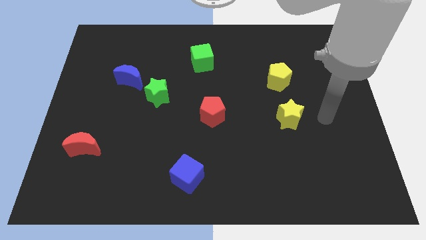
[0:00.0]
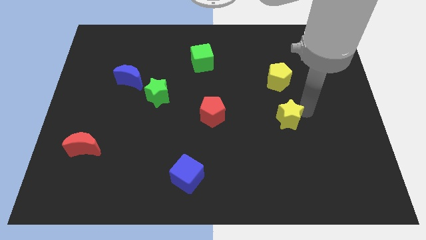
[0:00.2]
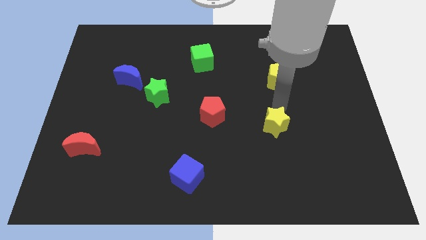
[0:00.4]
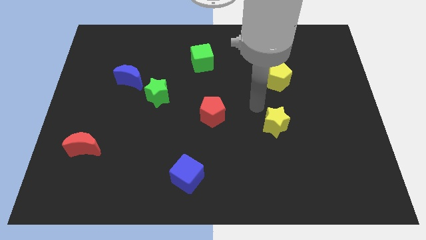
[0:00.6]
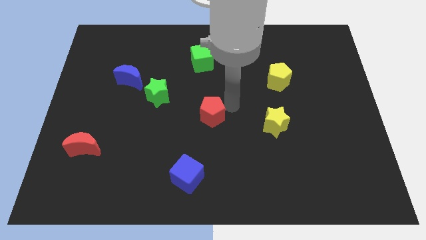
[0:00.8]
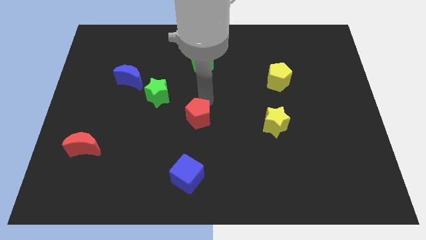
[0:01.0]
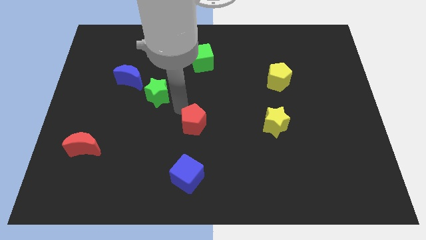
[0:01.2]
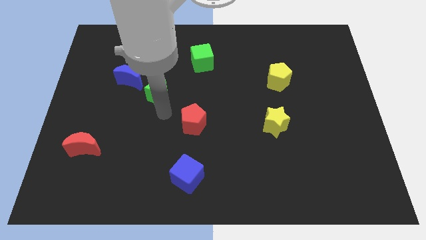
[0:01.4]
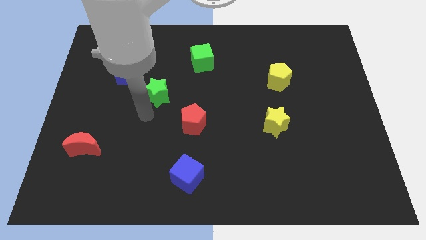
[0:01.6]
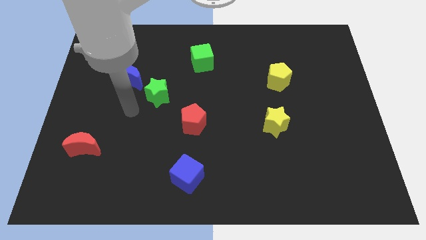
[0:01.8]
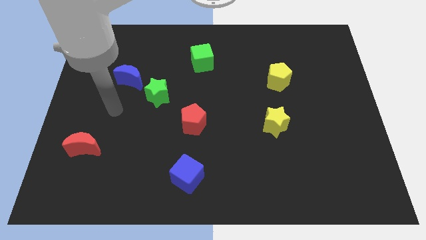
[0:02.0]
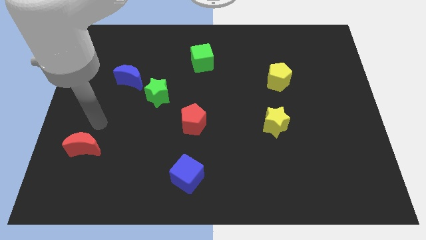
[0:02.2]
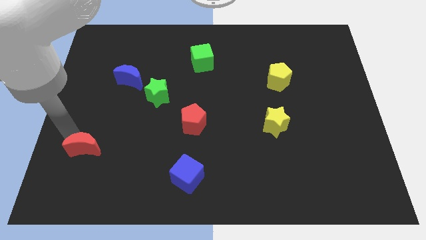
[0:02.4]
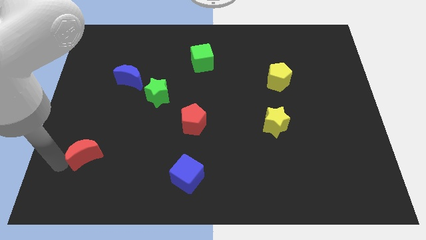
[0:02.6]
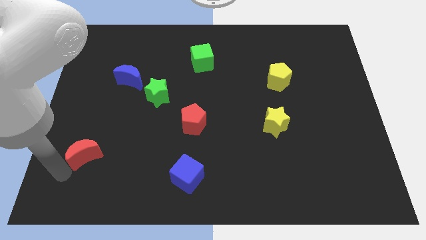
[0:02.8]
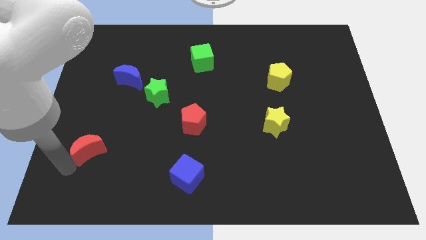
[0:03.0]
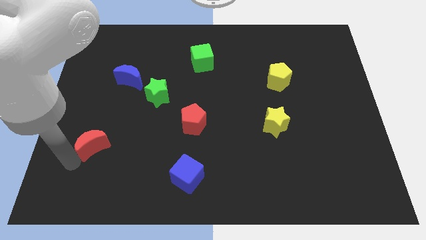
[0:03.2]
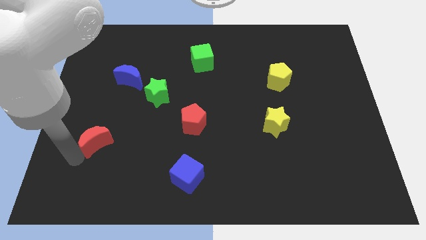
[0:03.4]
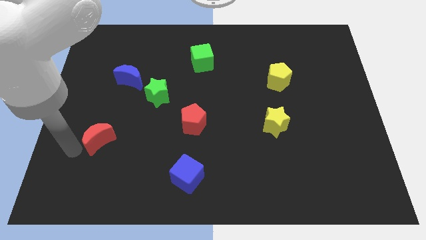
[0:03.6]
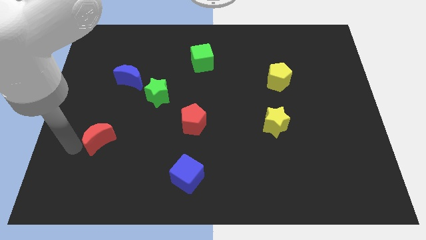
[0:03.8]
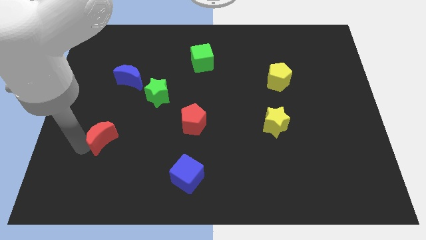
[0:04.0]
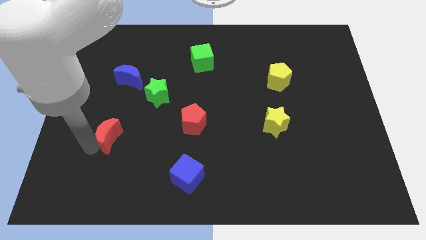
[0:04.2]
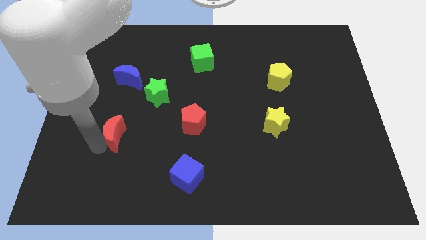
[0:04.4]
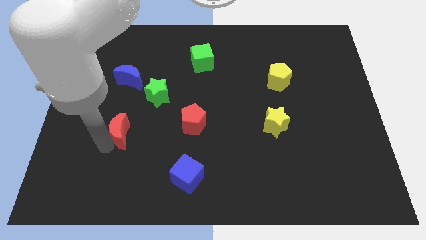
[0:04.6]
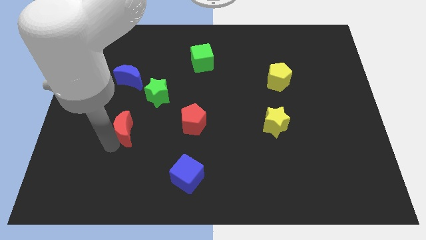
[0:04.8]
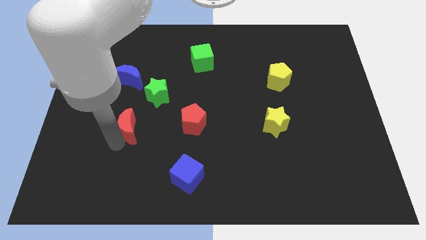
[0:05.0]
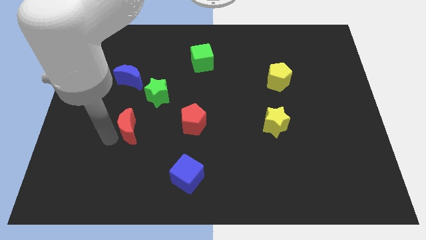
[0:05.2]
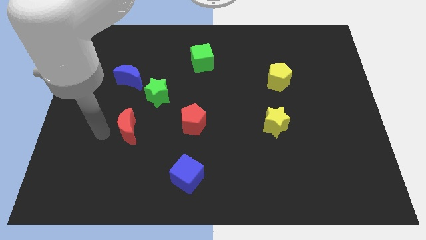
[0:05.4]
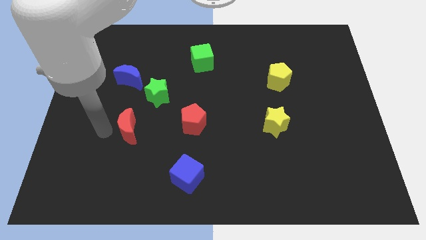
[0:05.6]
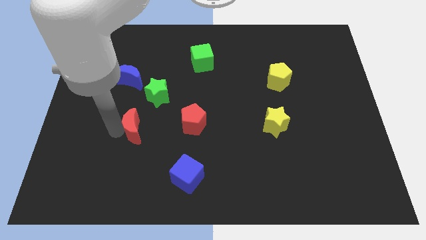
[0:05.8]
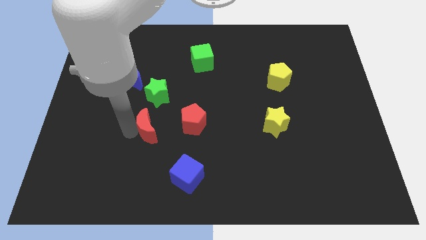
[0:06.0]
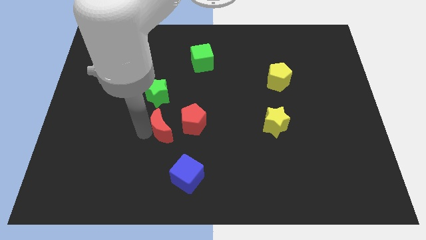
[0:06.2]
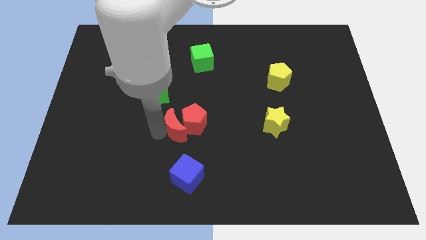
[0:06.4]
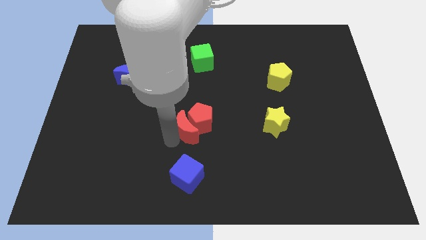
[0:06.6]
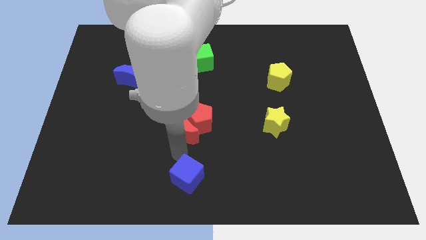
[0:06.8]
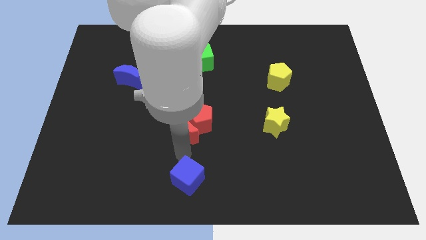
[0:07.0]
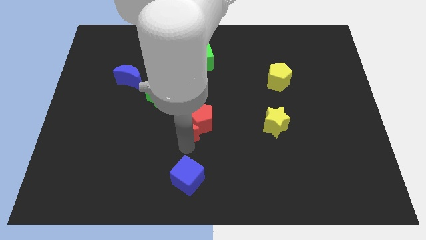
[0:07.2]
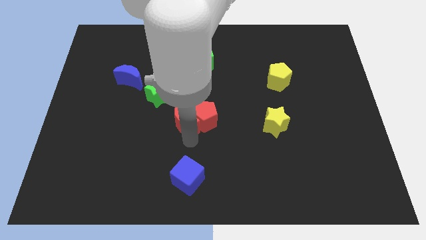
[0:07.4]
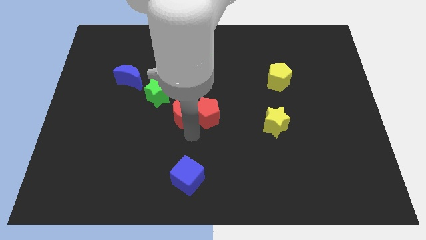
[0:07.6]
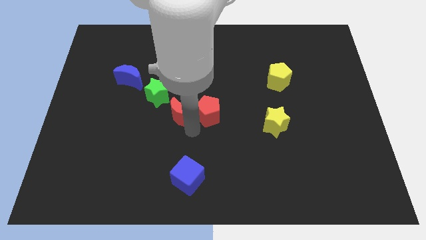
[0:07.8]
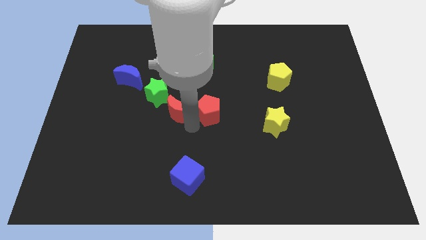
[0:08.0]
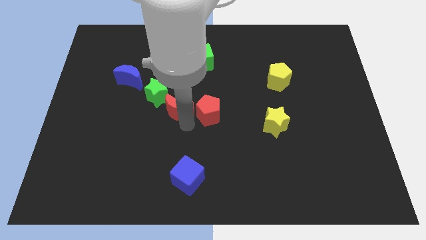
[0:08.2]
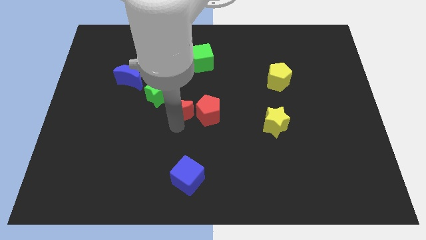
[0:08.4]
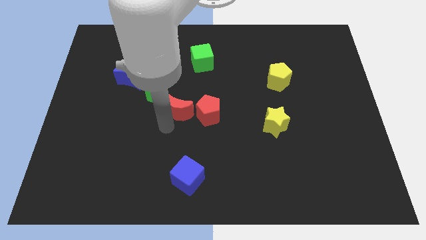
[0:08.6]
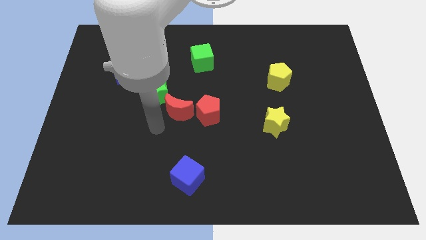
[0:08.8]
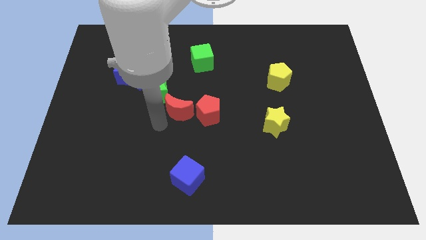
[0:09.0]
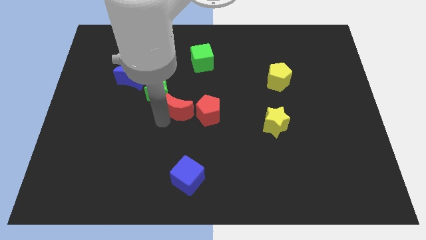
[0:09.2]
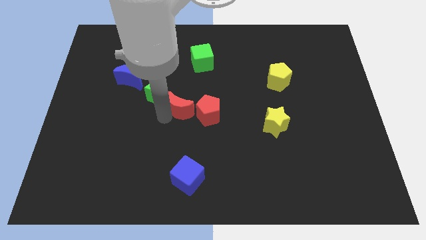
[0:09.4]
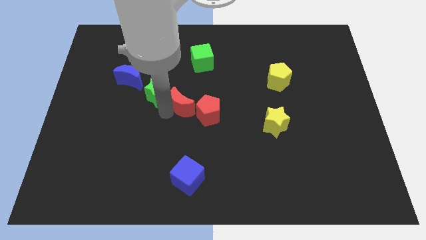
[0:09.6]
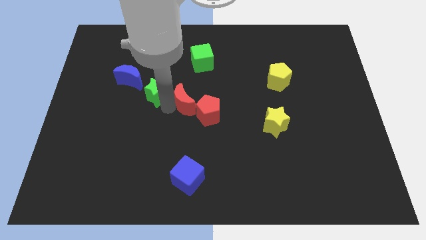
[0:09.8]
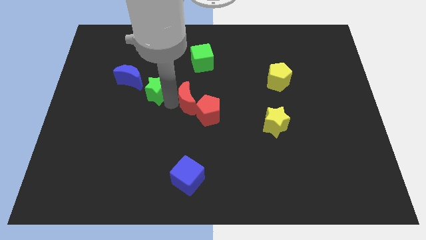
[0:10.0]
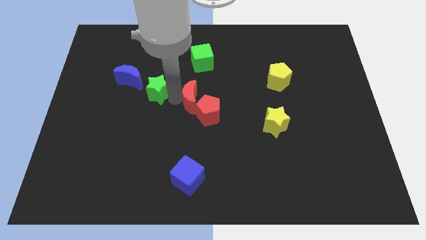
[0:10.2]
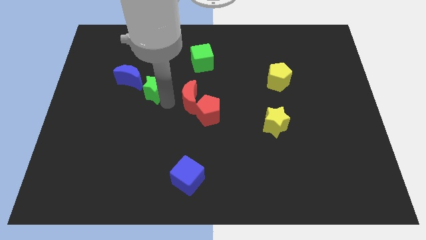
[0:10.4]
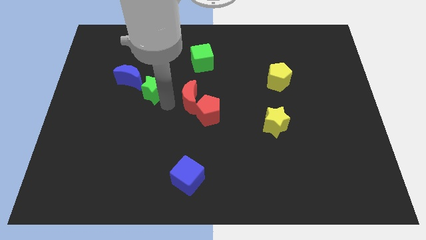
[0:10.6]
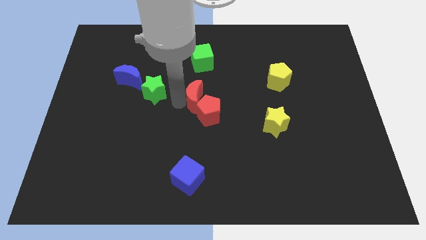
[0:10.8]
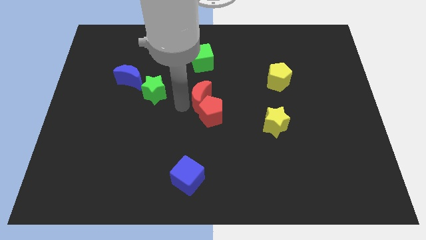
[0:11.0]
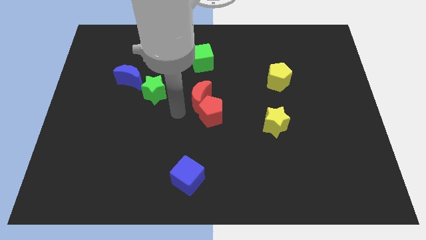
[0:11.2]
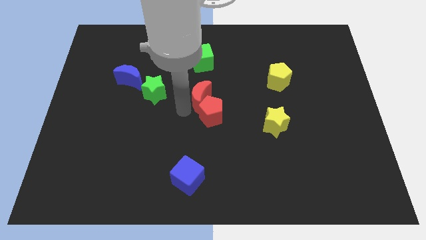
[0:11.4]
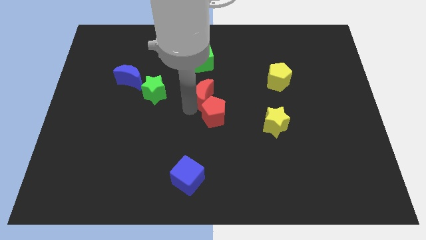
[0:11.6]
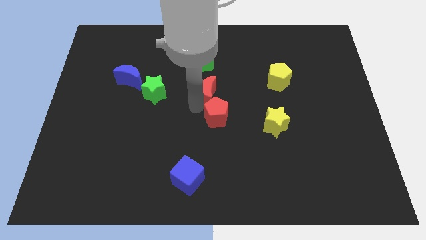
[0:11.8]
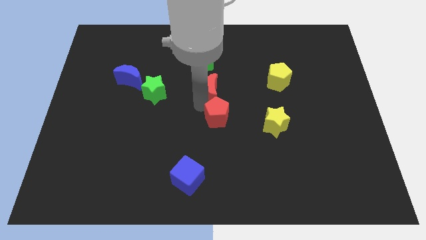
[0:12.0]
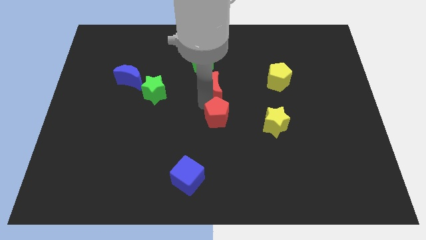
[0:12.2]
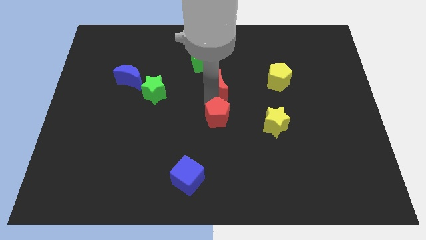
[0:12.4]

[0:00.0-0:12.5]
slide the red moon to the left of the yellow pentagon

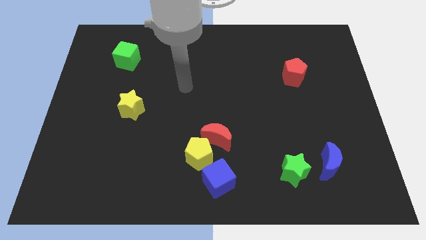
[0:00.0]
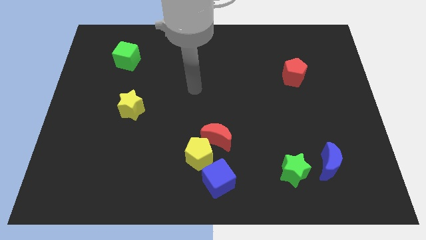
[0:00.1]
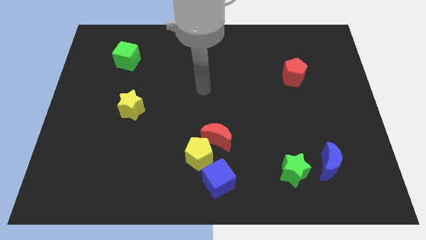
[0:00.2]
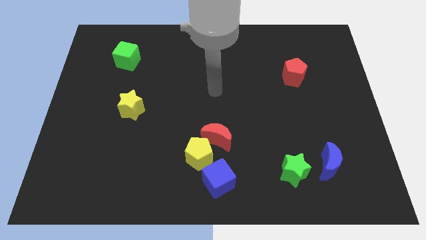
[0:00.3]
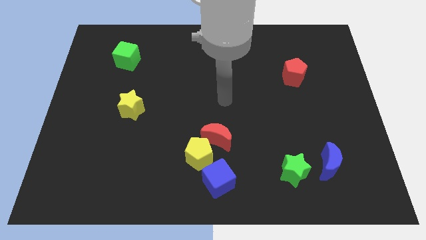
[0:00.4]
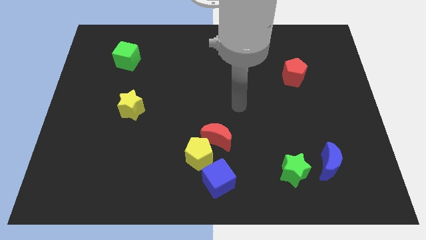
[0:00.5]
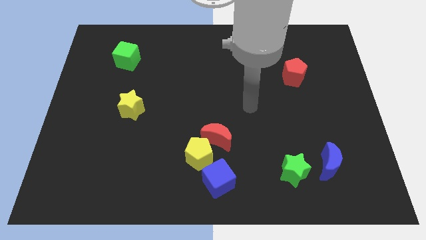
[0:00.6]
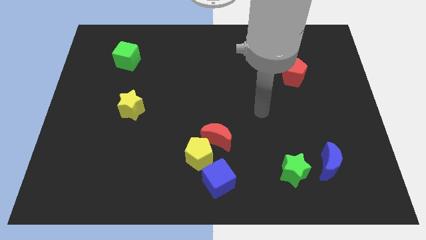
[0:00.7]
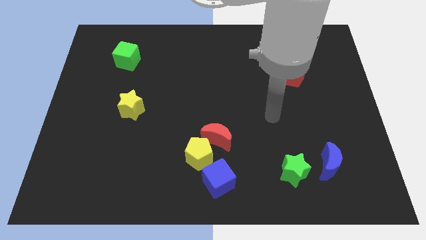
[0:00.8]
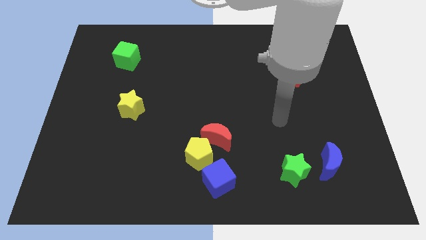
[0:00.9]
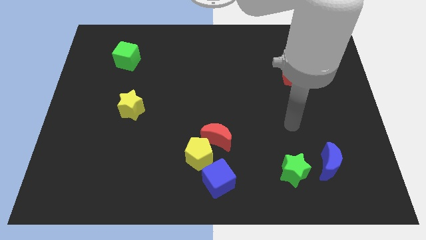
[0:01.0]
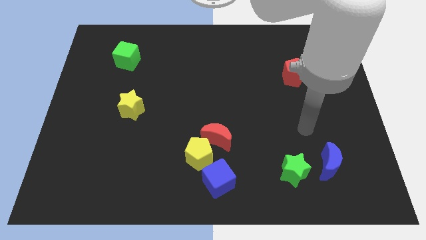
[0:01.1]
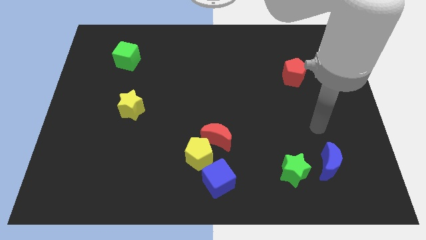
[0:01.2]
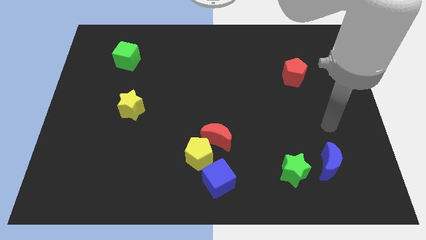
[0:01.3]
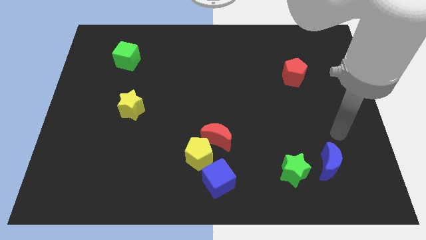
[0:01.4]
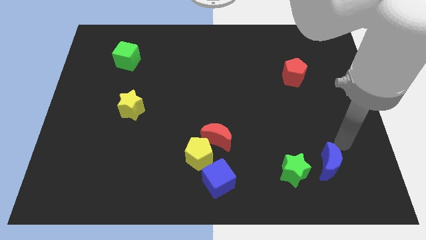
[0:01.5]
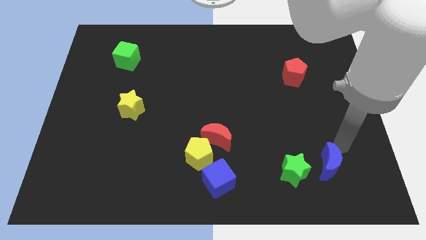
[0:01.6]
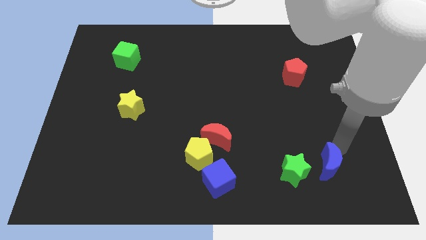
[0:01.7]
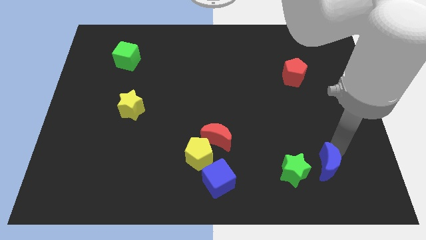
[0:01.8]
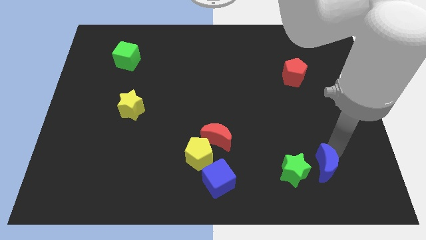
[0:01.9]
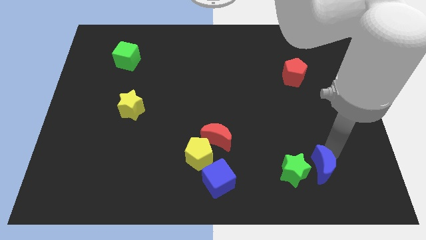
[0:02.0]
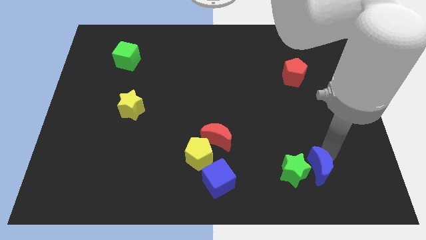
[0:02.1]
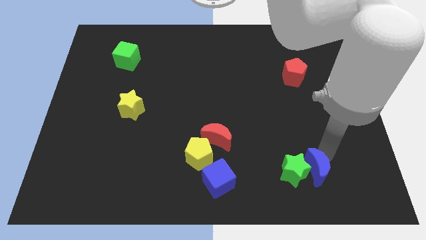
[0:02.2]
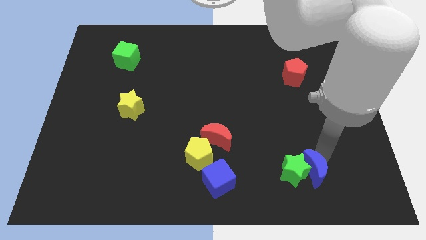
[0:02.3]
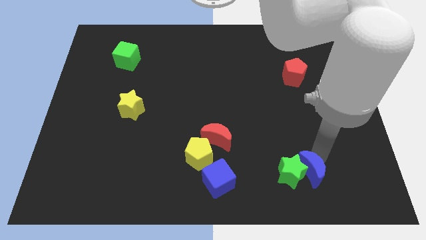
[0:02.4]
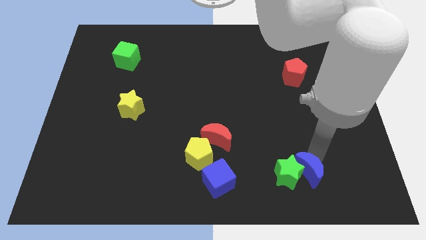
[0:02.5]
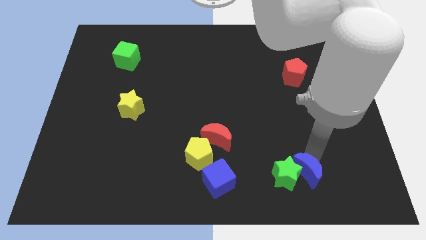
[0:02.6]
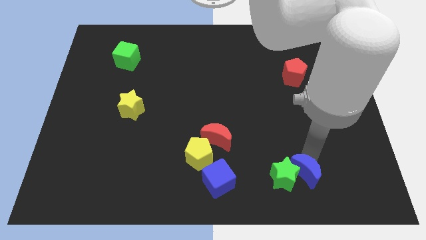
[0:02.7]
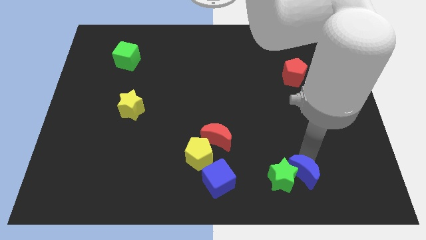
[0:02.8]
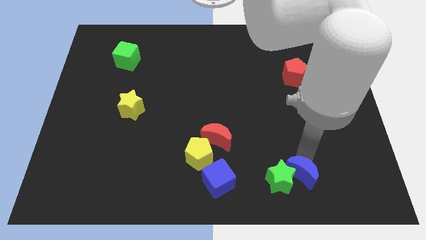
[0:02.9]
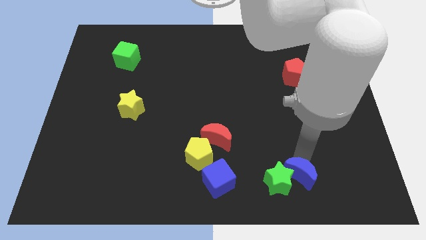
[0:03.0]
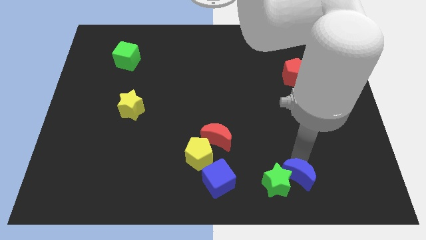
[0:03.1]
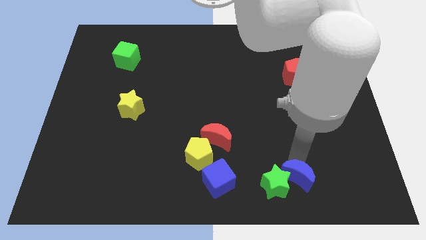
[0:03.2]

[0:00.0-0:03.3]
slide the blue moon to the right of the blue cube
